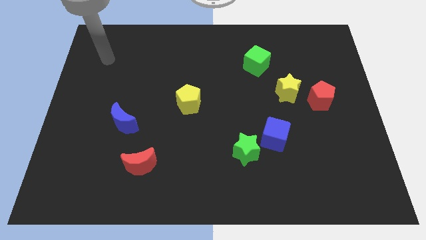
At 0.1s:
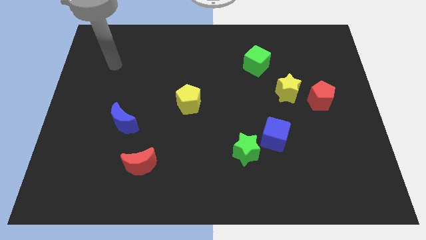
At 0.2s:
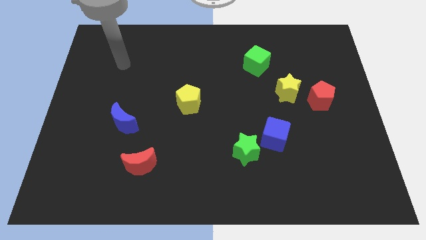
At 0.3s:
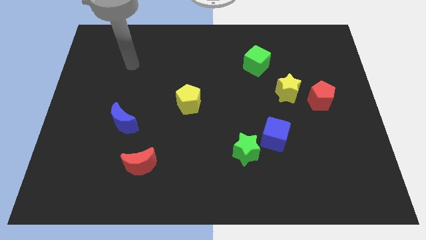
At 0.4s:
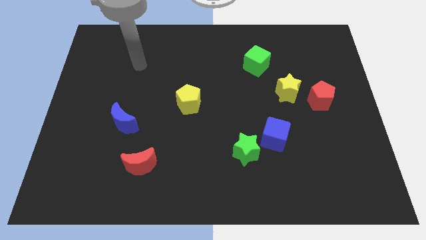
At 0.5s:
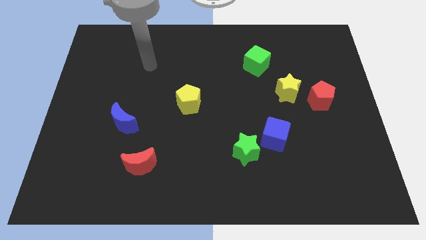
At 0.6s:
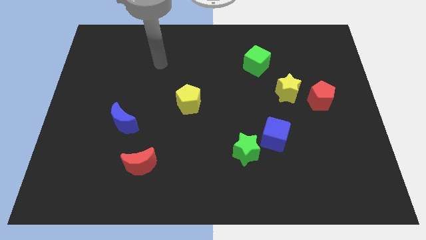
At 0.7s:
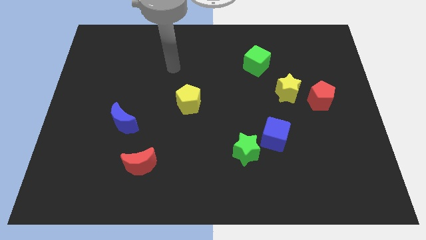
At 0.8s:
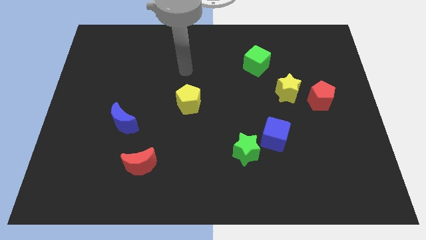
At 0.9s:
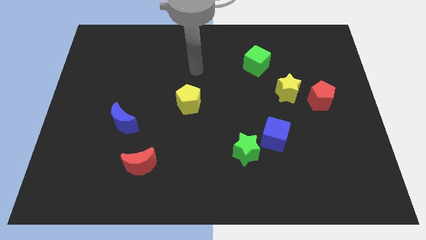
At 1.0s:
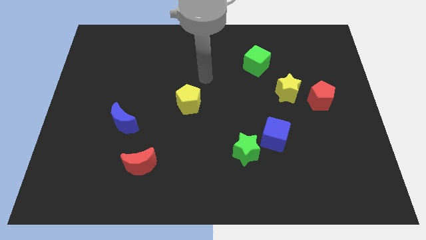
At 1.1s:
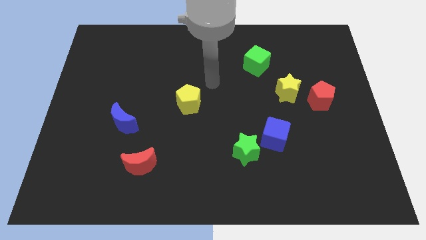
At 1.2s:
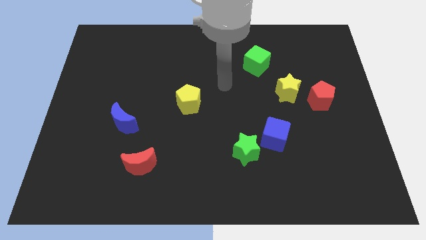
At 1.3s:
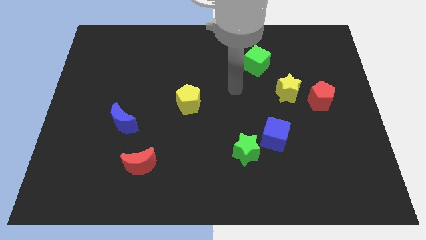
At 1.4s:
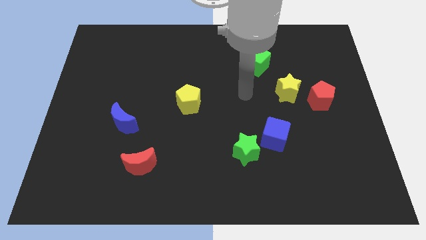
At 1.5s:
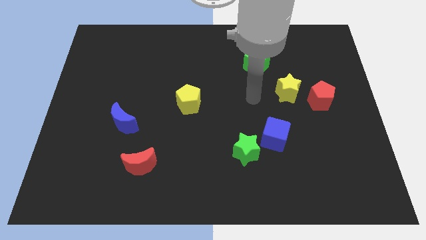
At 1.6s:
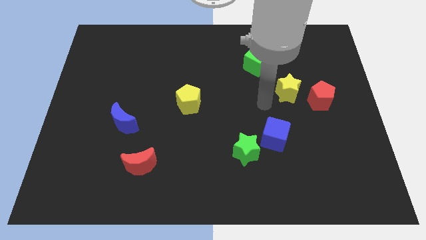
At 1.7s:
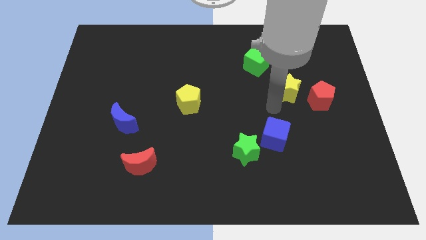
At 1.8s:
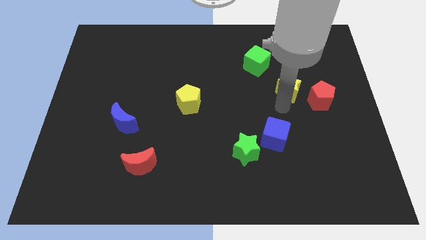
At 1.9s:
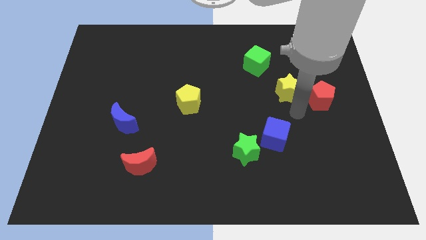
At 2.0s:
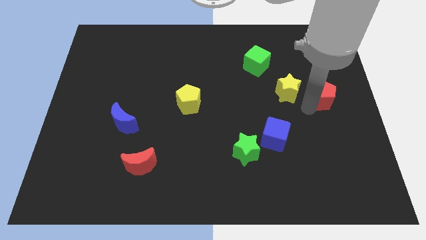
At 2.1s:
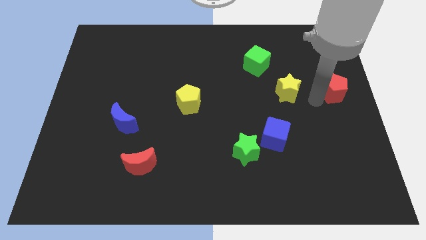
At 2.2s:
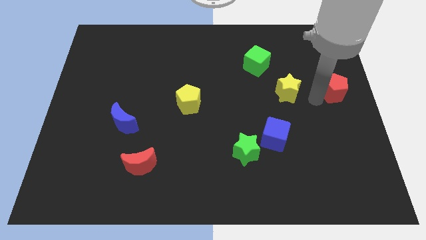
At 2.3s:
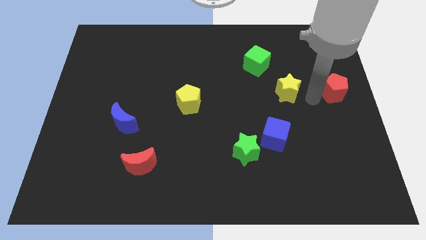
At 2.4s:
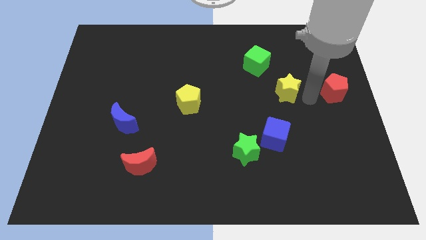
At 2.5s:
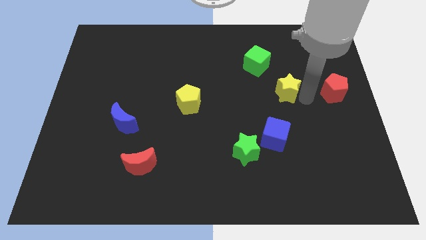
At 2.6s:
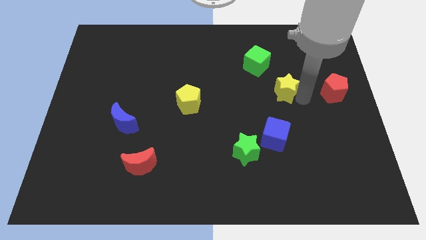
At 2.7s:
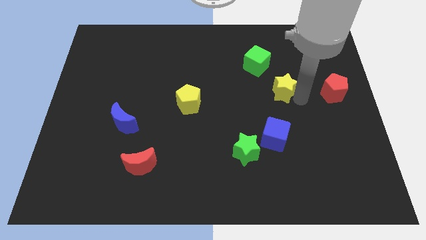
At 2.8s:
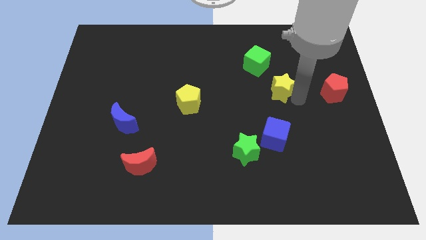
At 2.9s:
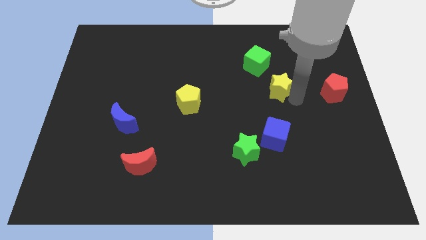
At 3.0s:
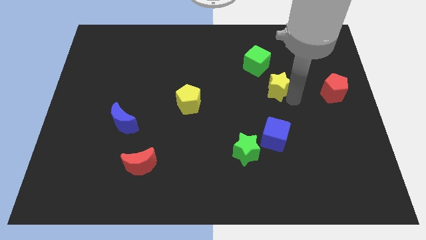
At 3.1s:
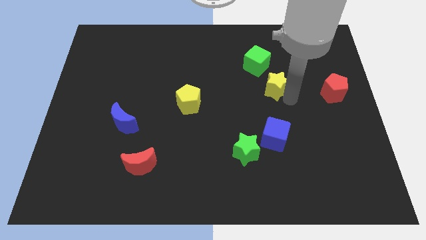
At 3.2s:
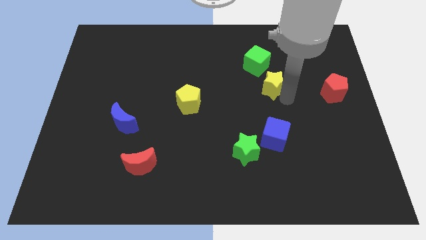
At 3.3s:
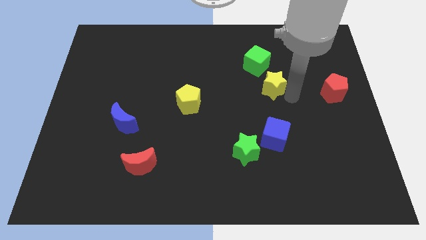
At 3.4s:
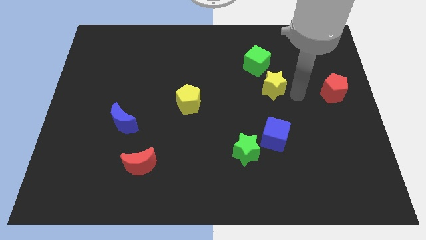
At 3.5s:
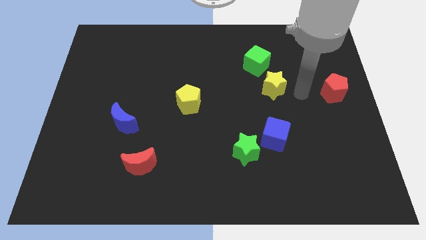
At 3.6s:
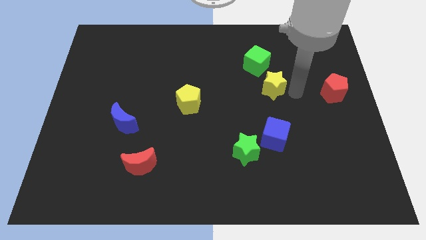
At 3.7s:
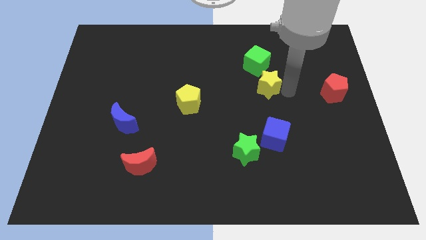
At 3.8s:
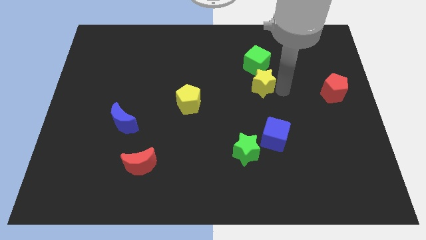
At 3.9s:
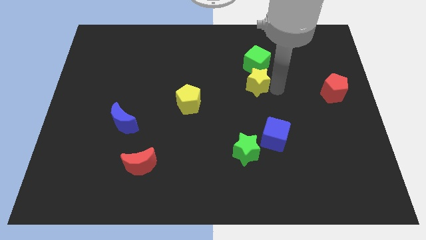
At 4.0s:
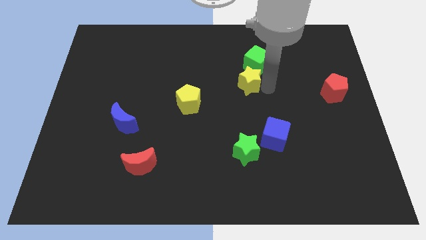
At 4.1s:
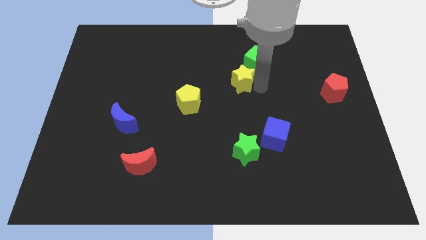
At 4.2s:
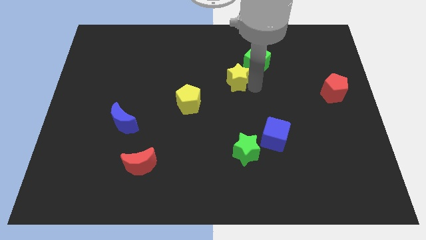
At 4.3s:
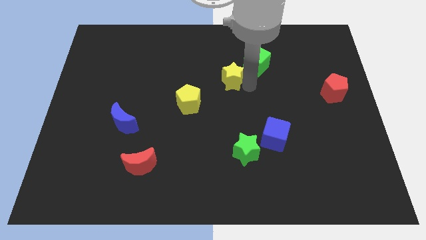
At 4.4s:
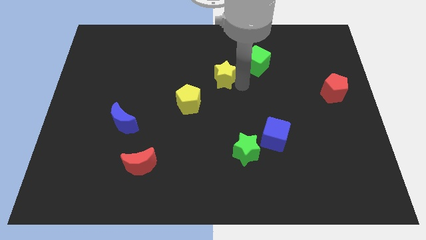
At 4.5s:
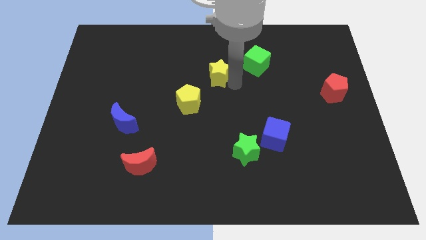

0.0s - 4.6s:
slide the yellow star to the left side of the green cube

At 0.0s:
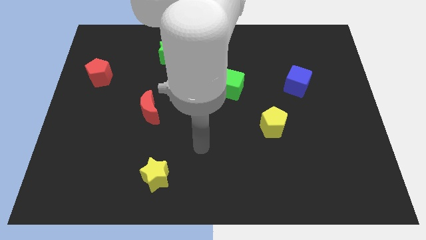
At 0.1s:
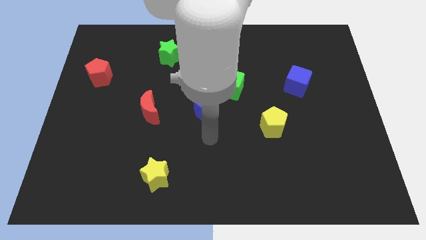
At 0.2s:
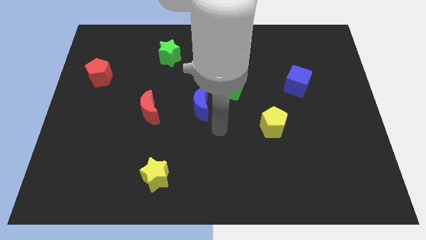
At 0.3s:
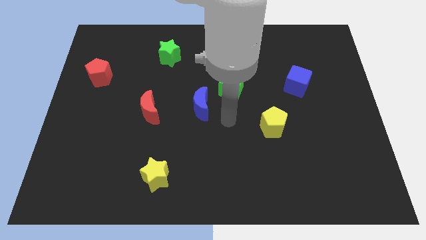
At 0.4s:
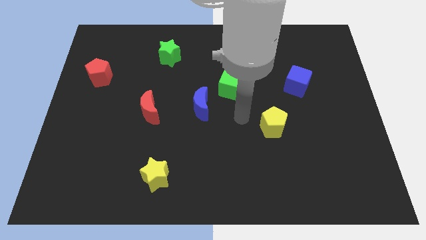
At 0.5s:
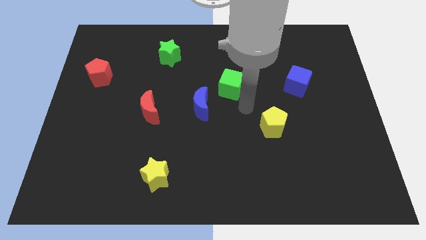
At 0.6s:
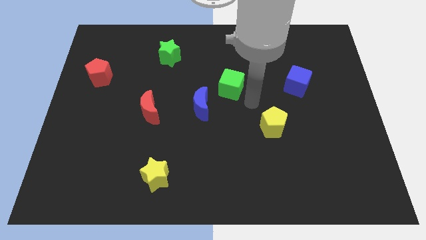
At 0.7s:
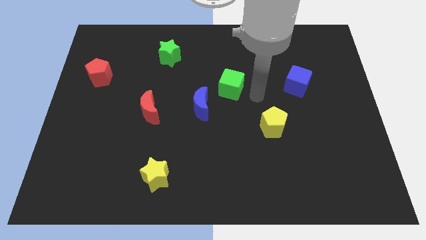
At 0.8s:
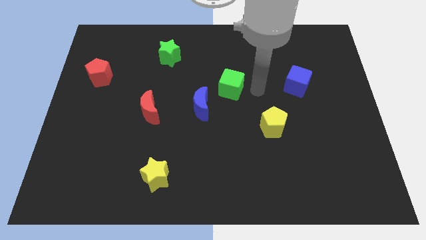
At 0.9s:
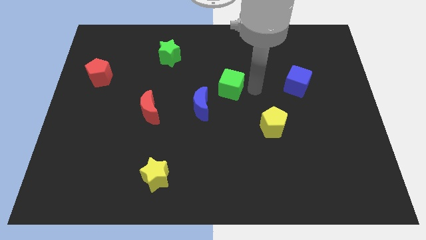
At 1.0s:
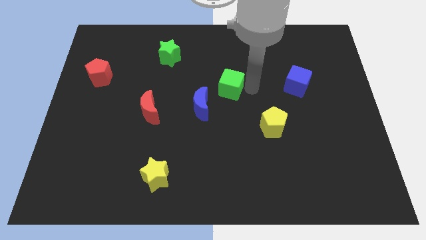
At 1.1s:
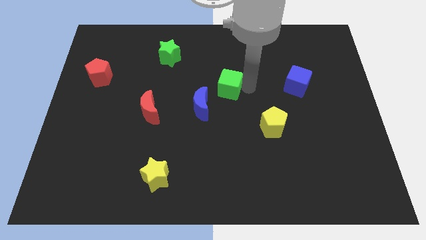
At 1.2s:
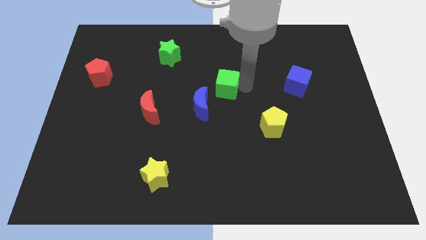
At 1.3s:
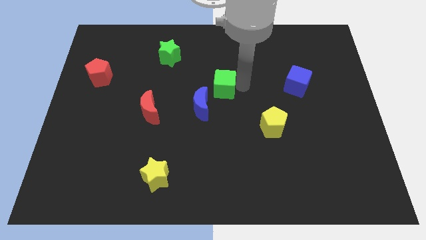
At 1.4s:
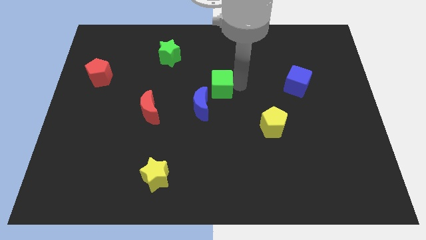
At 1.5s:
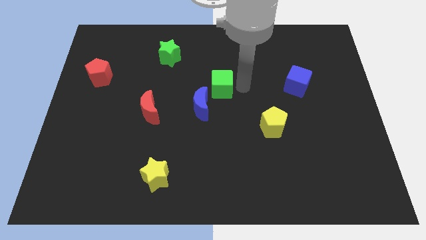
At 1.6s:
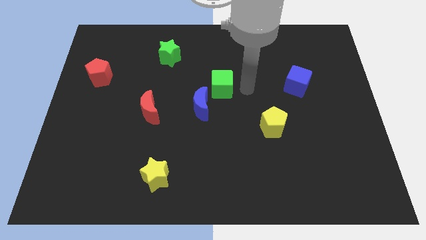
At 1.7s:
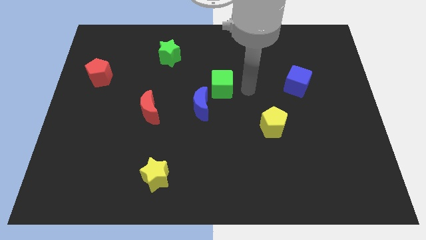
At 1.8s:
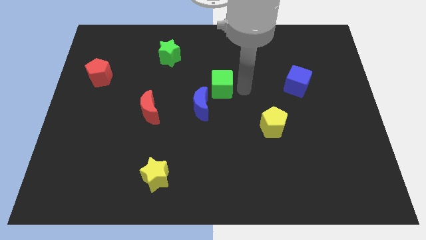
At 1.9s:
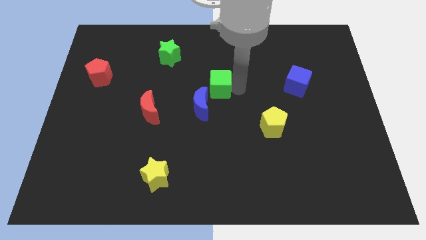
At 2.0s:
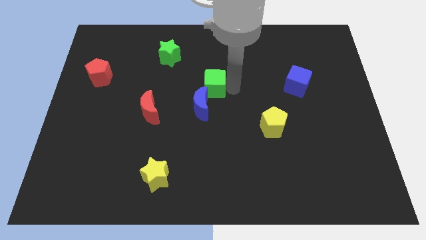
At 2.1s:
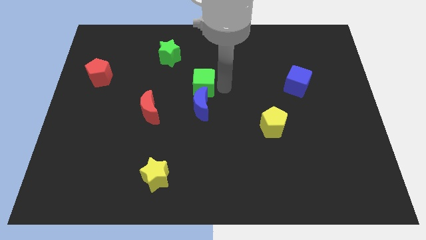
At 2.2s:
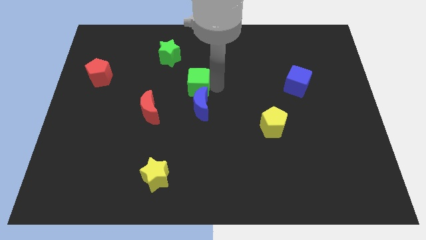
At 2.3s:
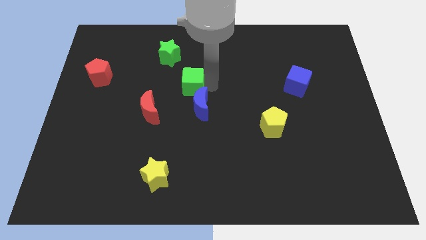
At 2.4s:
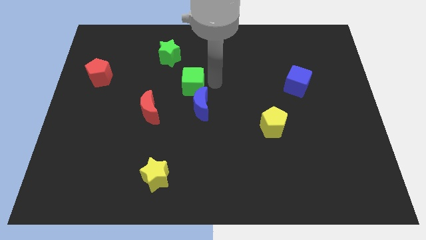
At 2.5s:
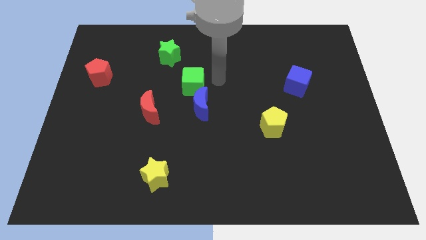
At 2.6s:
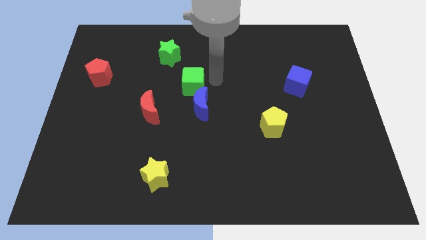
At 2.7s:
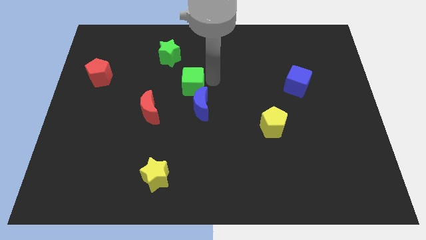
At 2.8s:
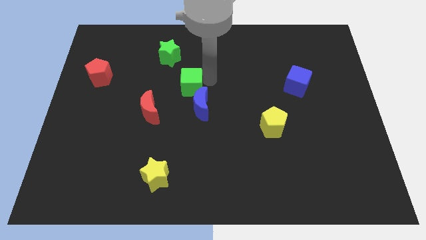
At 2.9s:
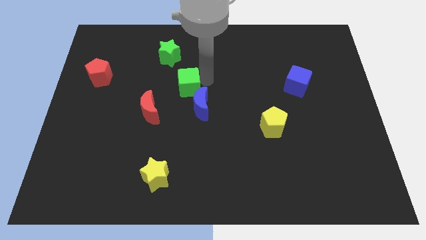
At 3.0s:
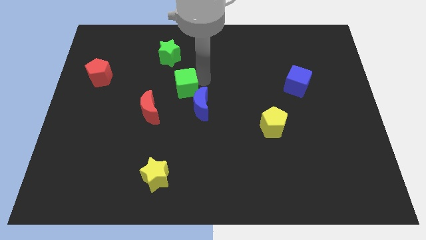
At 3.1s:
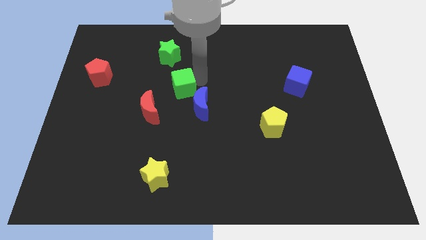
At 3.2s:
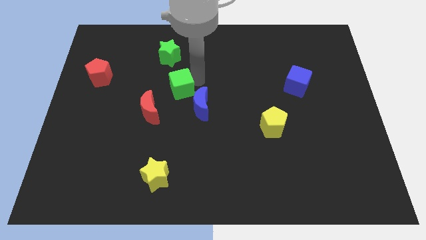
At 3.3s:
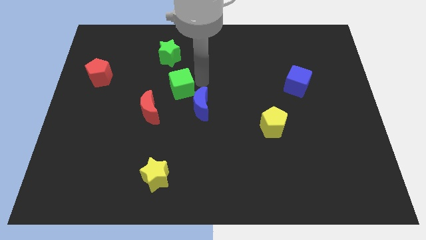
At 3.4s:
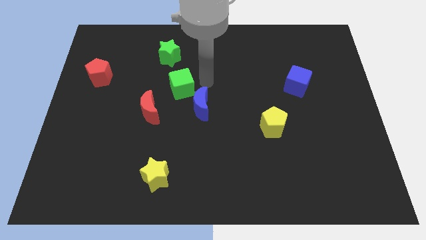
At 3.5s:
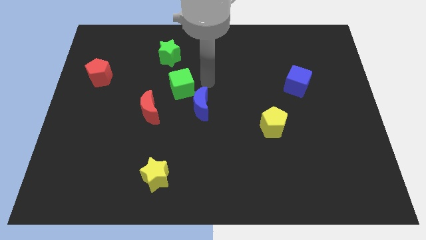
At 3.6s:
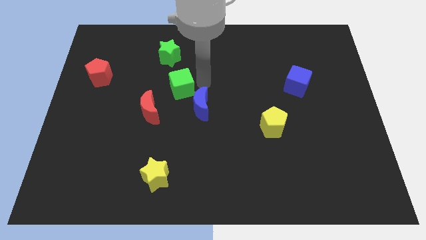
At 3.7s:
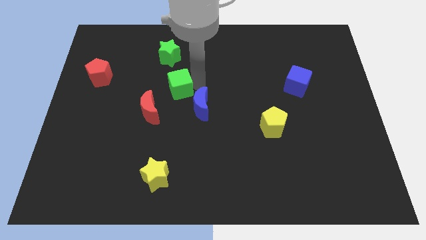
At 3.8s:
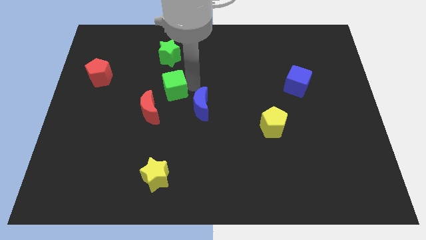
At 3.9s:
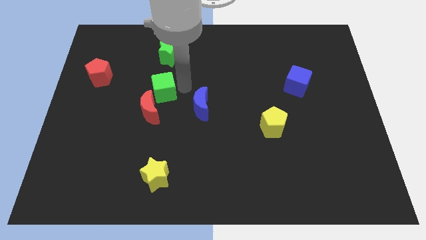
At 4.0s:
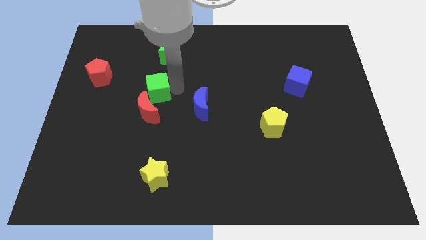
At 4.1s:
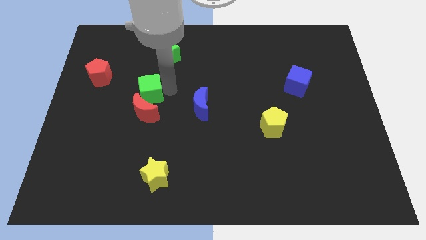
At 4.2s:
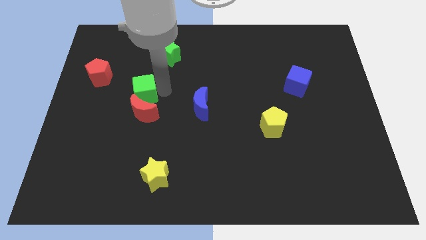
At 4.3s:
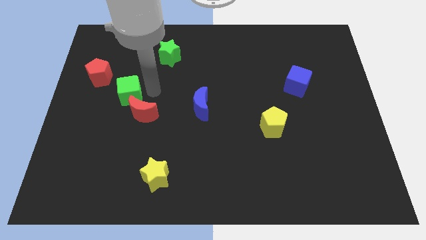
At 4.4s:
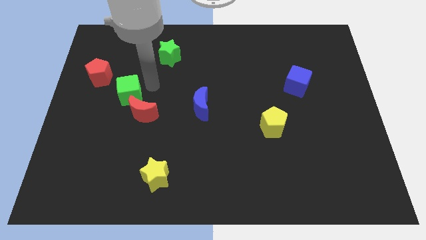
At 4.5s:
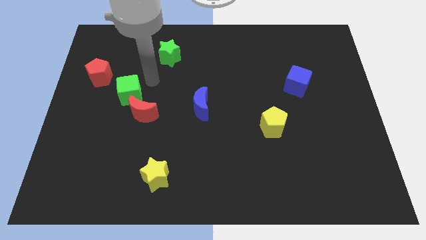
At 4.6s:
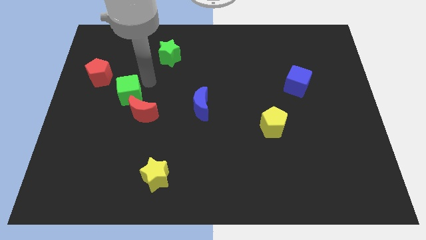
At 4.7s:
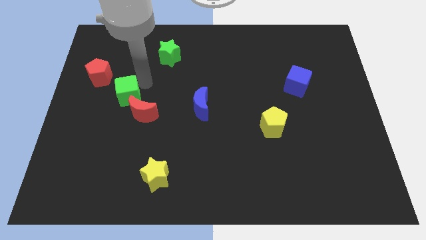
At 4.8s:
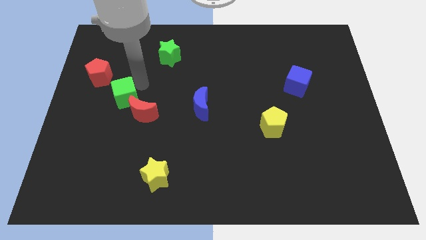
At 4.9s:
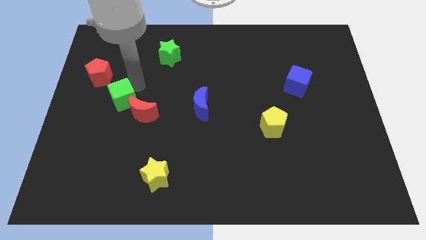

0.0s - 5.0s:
move the green cube just left of the red moon
